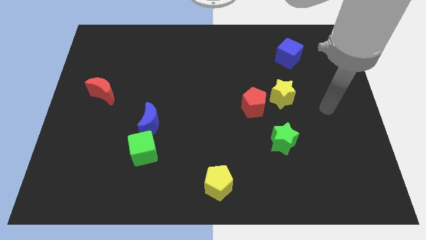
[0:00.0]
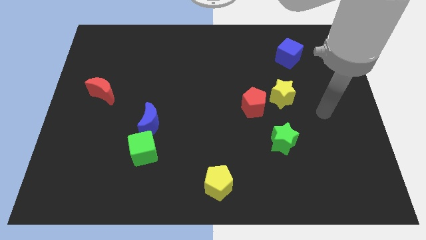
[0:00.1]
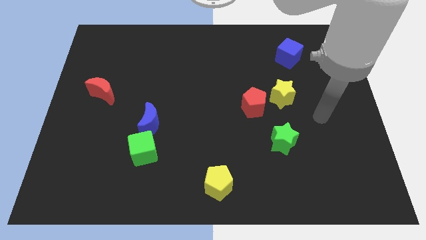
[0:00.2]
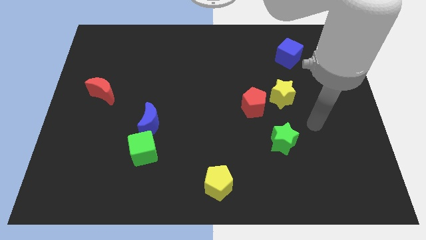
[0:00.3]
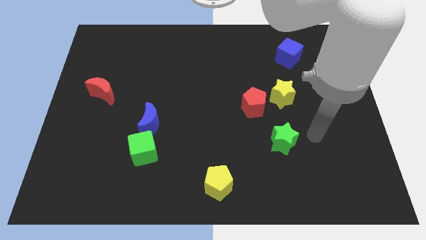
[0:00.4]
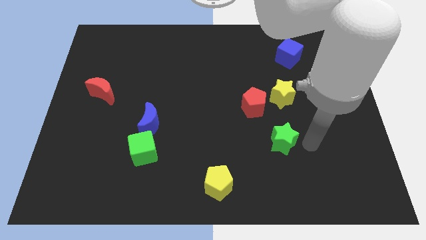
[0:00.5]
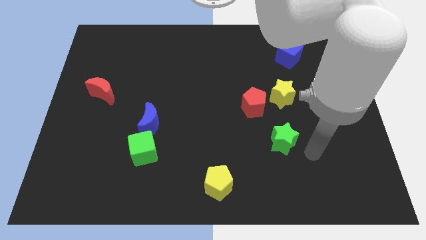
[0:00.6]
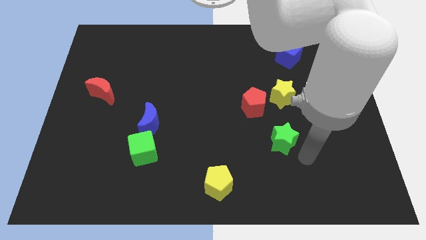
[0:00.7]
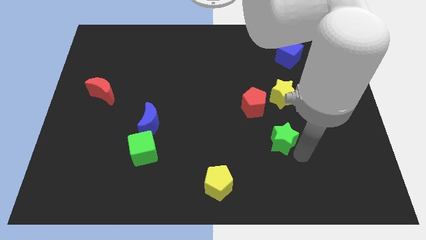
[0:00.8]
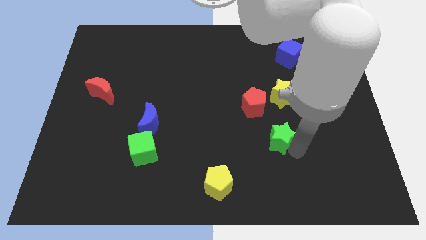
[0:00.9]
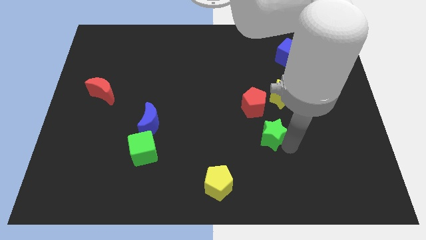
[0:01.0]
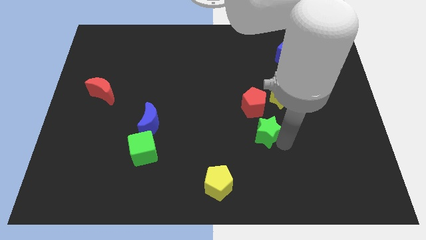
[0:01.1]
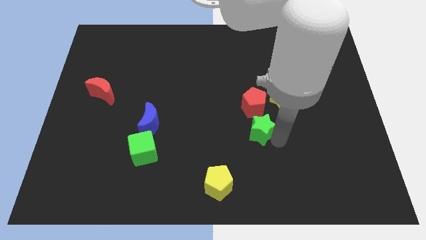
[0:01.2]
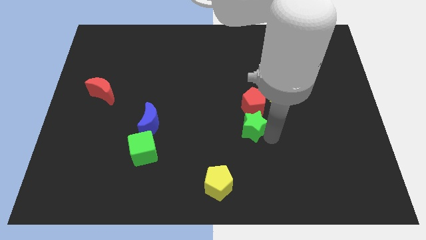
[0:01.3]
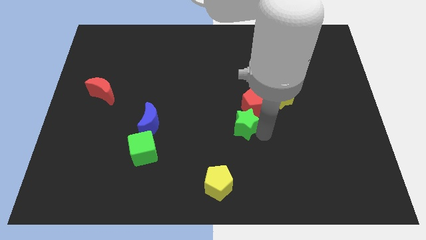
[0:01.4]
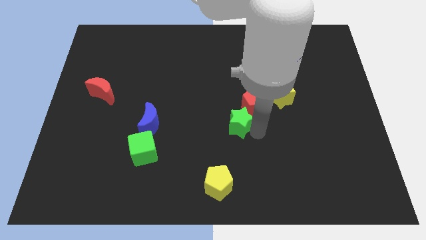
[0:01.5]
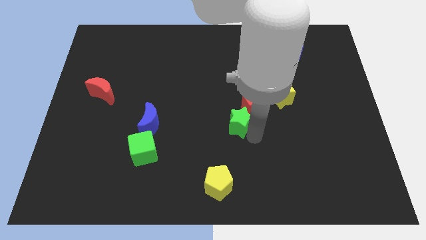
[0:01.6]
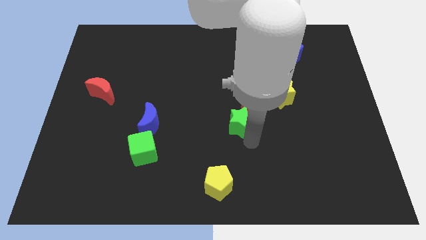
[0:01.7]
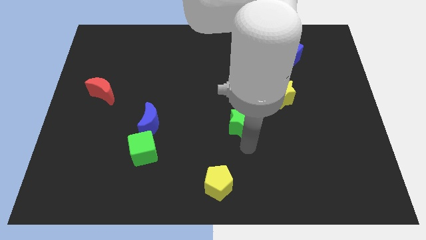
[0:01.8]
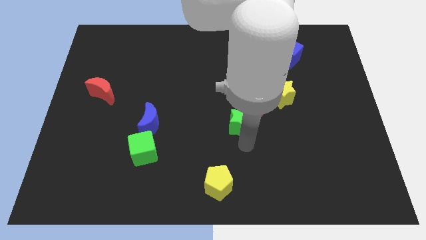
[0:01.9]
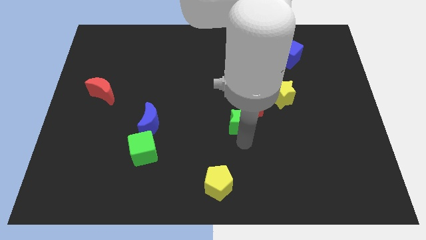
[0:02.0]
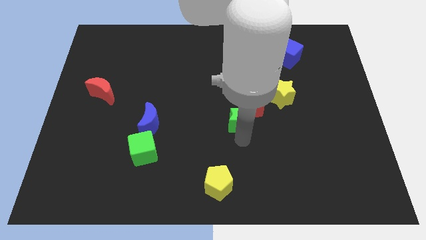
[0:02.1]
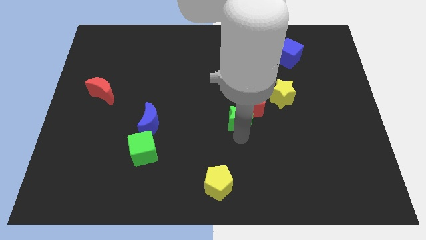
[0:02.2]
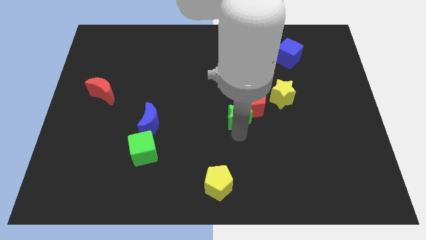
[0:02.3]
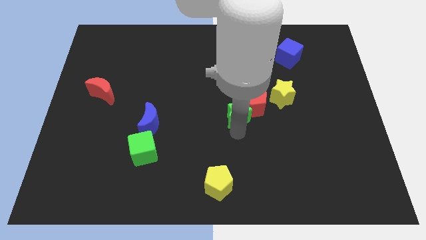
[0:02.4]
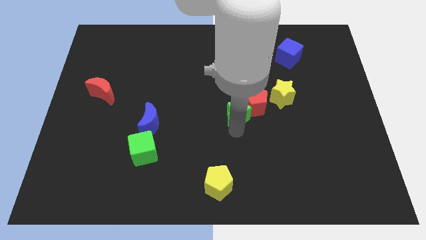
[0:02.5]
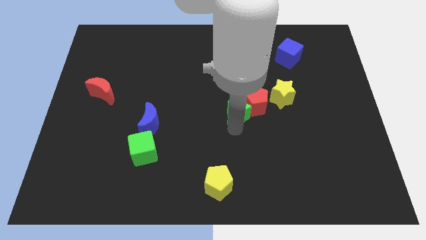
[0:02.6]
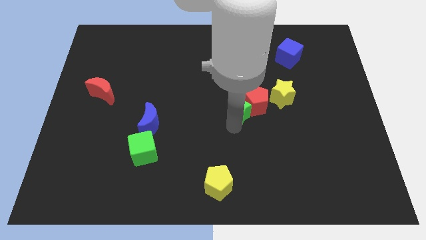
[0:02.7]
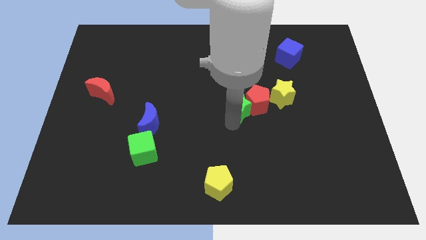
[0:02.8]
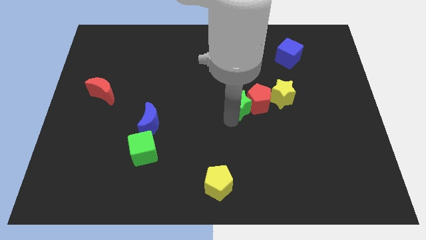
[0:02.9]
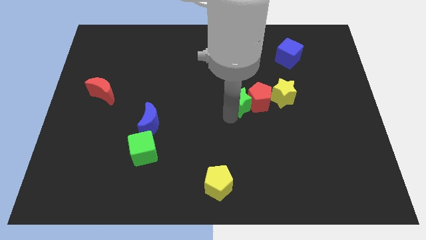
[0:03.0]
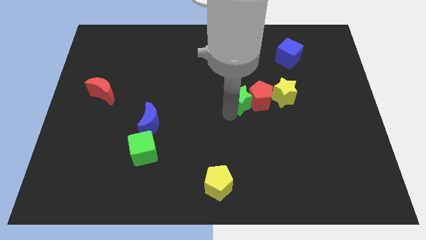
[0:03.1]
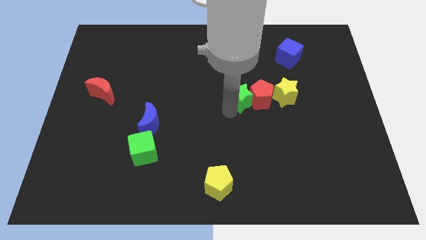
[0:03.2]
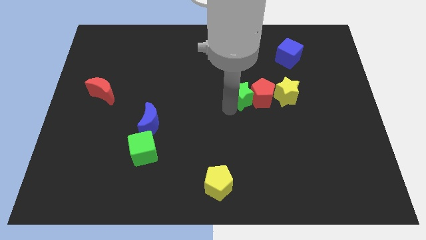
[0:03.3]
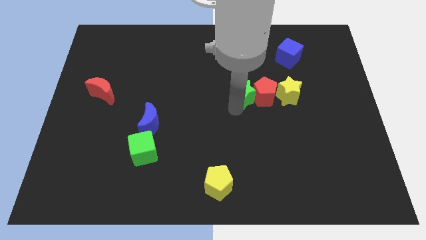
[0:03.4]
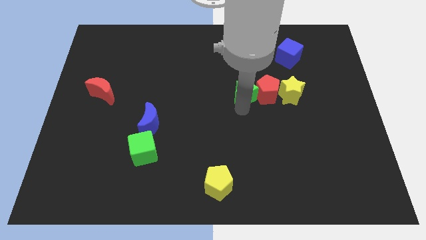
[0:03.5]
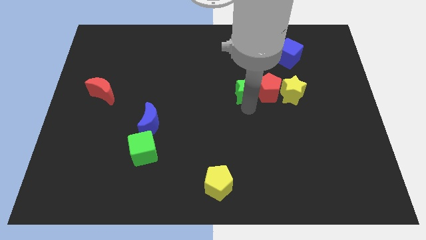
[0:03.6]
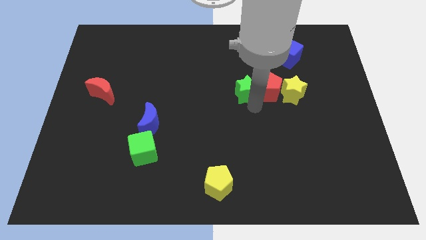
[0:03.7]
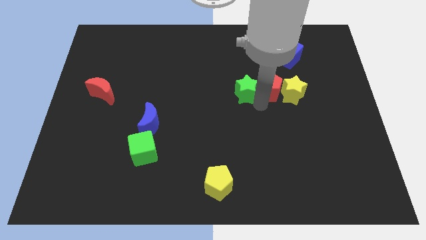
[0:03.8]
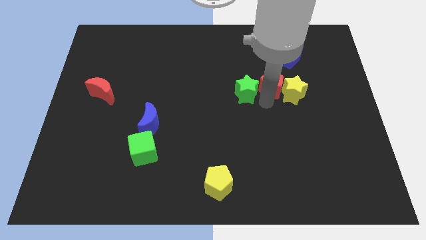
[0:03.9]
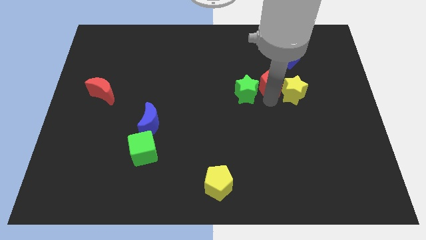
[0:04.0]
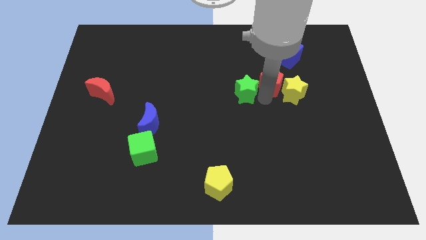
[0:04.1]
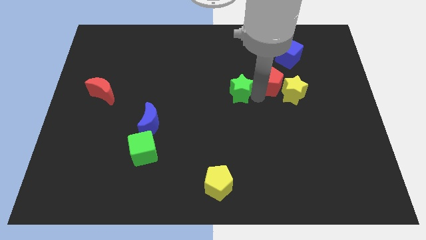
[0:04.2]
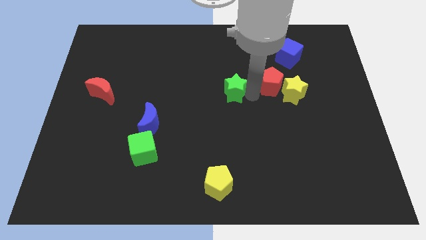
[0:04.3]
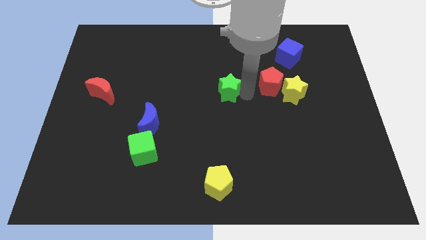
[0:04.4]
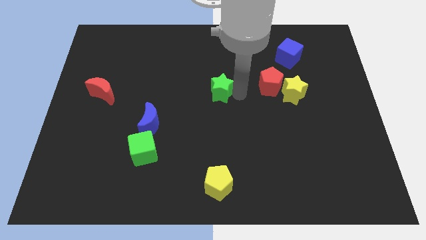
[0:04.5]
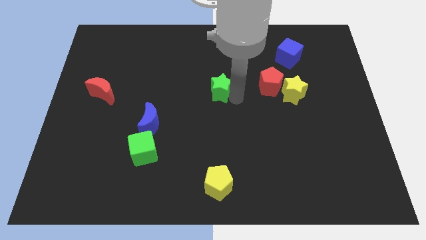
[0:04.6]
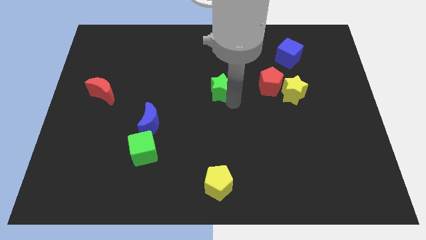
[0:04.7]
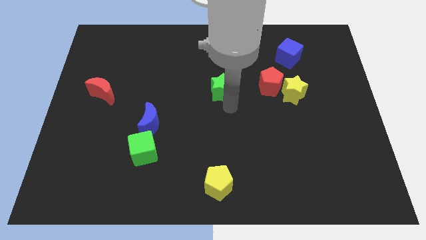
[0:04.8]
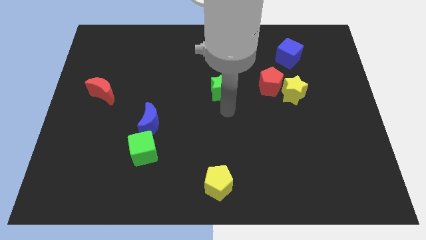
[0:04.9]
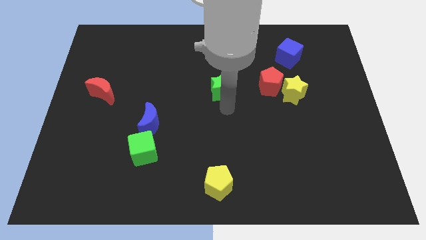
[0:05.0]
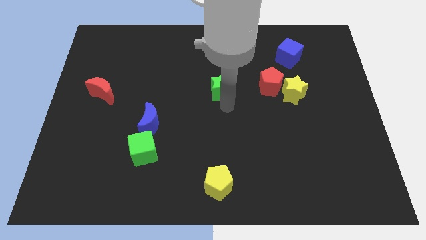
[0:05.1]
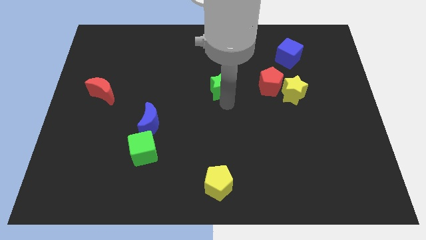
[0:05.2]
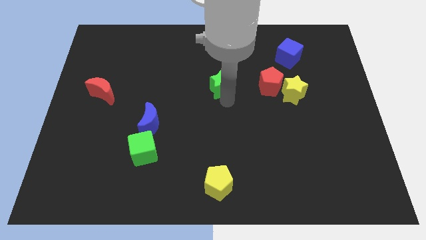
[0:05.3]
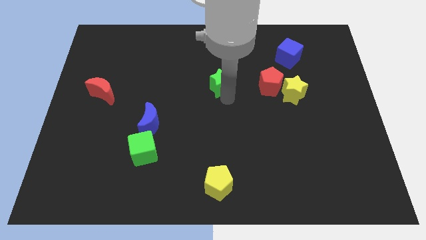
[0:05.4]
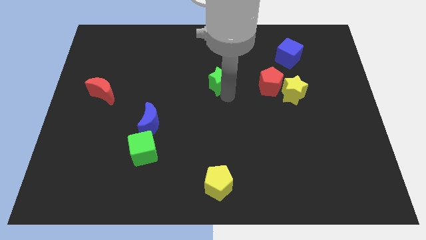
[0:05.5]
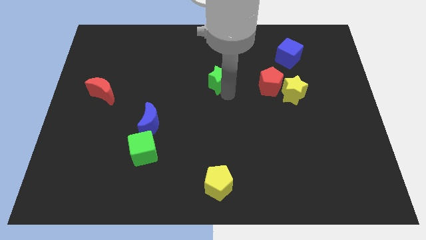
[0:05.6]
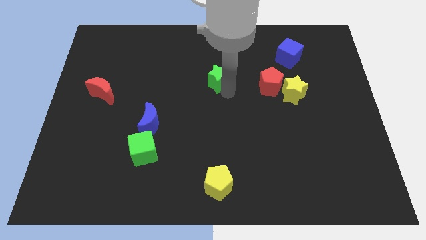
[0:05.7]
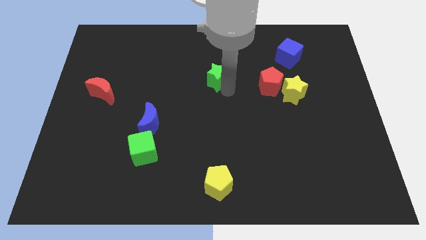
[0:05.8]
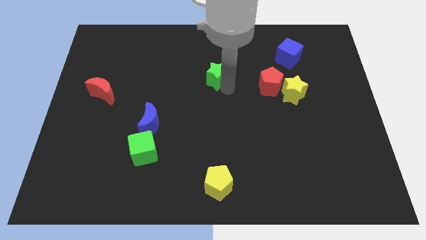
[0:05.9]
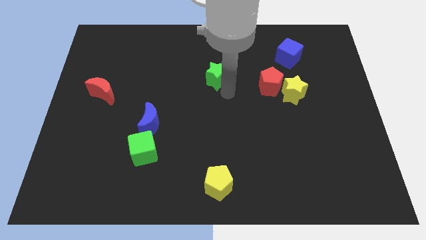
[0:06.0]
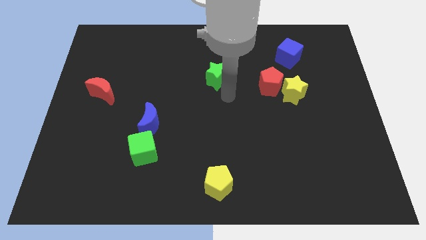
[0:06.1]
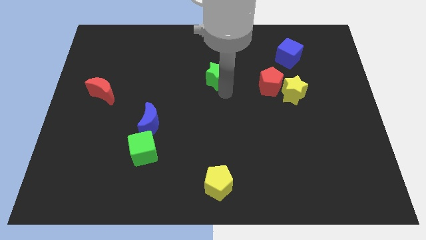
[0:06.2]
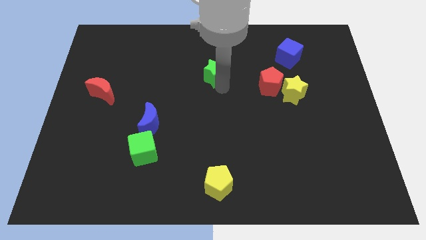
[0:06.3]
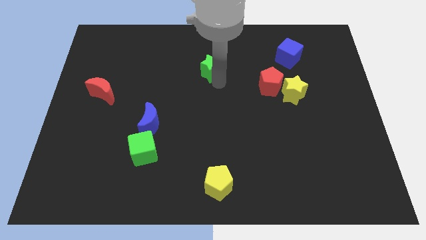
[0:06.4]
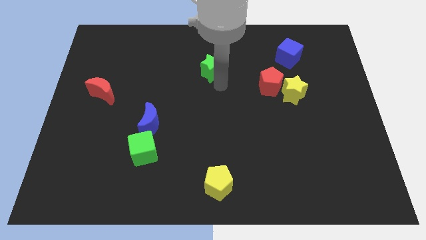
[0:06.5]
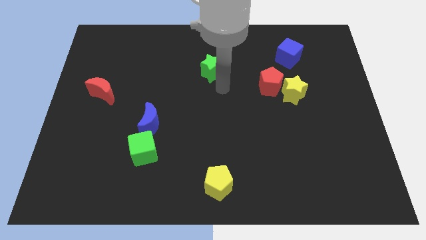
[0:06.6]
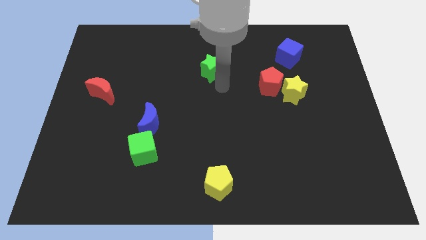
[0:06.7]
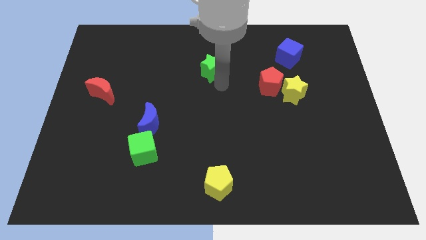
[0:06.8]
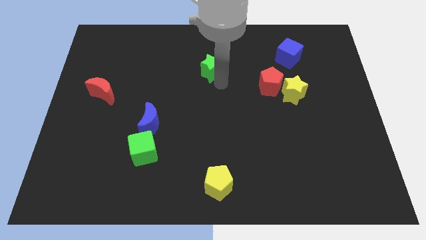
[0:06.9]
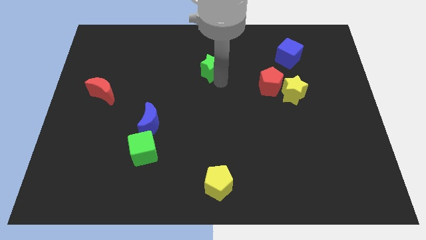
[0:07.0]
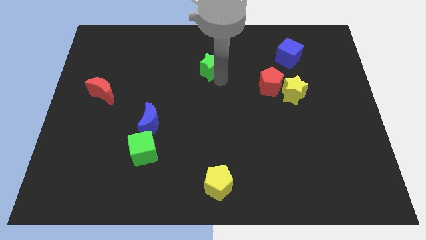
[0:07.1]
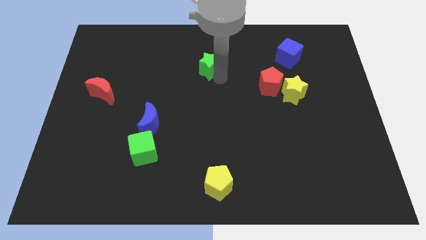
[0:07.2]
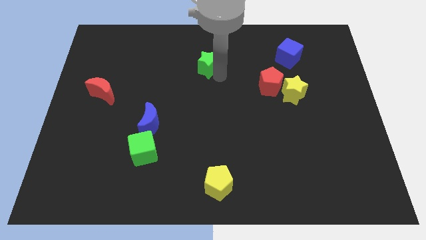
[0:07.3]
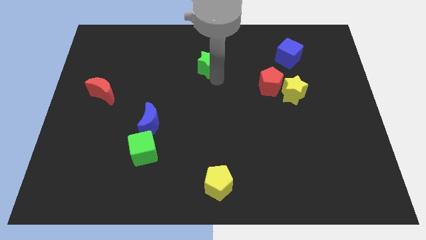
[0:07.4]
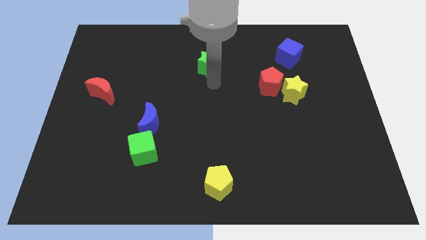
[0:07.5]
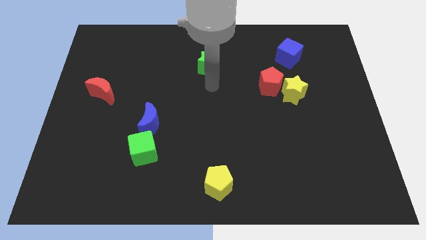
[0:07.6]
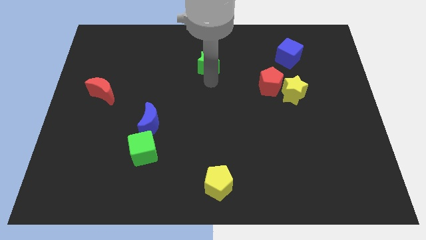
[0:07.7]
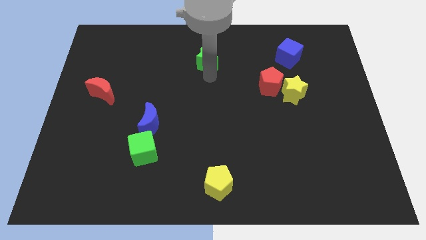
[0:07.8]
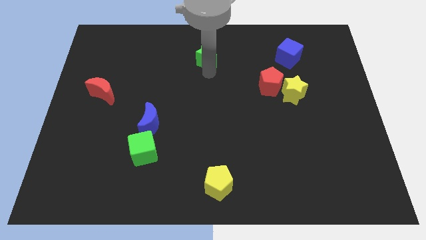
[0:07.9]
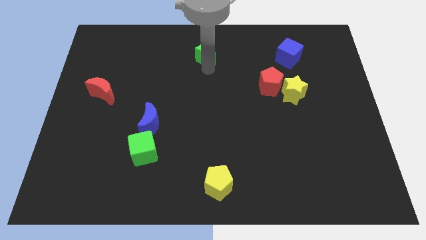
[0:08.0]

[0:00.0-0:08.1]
push the green star to the top
